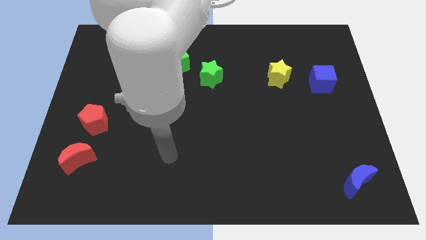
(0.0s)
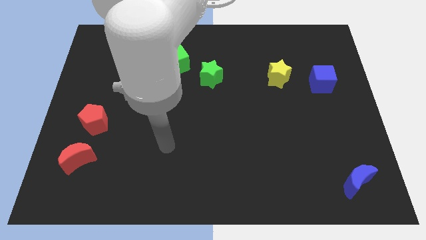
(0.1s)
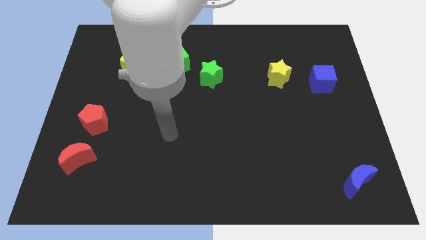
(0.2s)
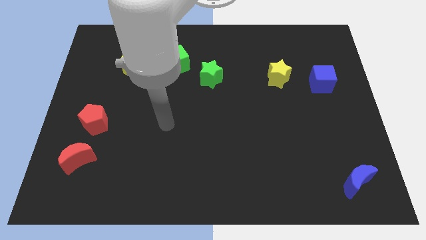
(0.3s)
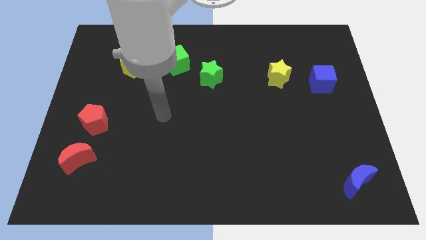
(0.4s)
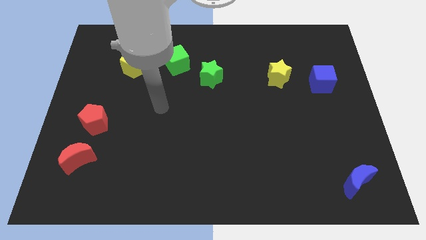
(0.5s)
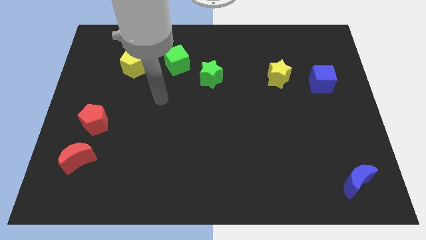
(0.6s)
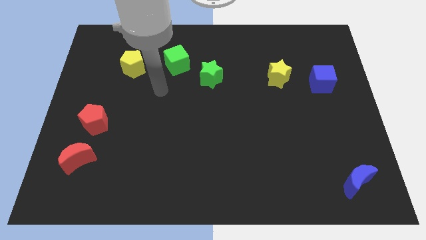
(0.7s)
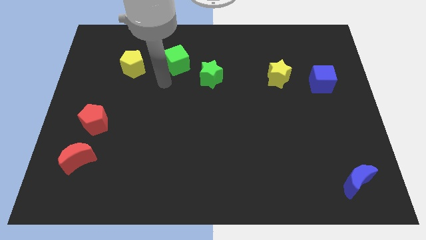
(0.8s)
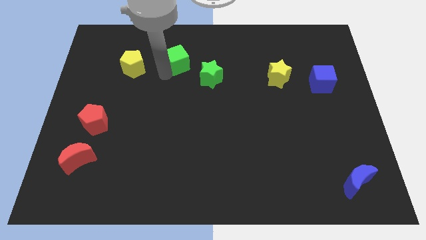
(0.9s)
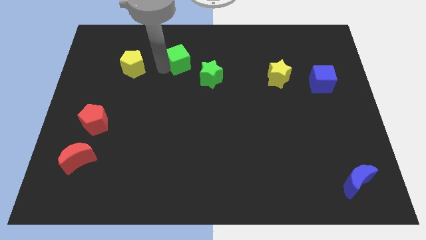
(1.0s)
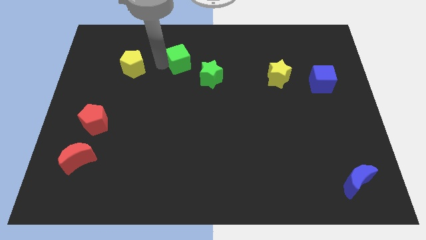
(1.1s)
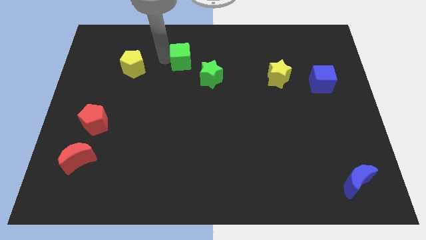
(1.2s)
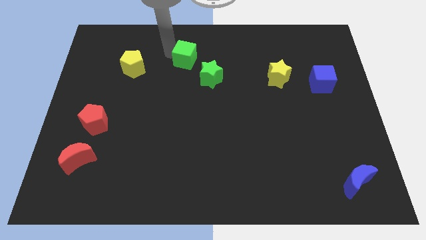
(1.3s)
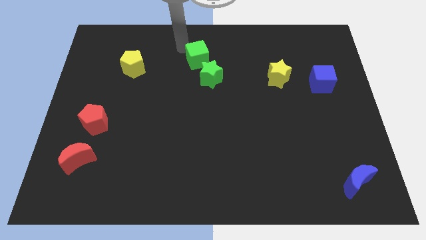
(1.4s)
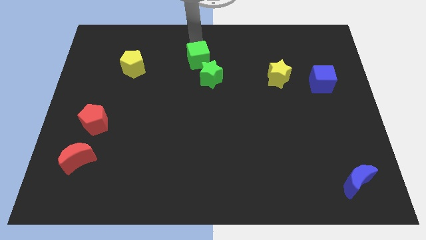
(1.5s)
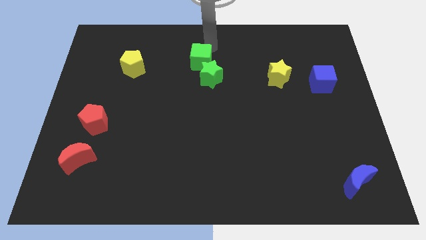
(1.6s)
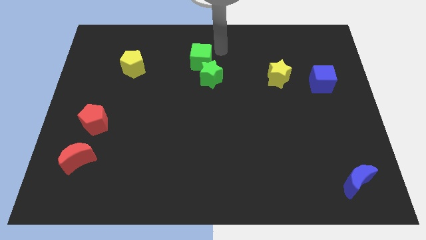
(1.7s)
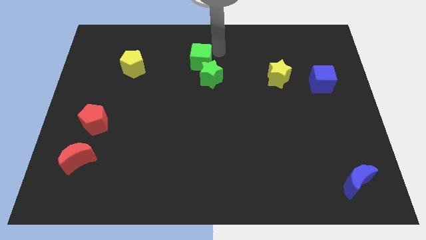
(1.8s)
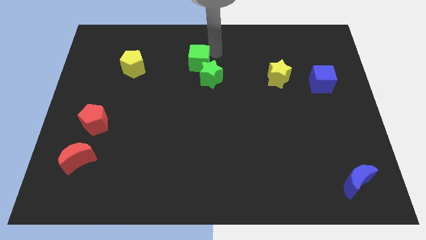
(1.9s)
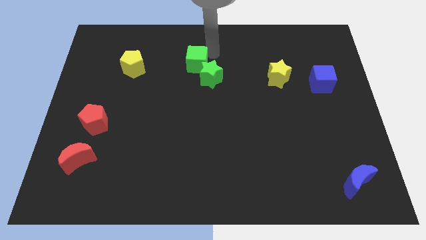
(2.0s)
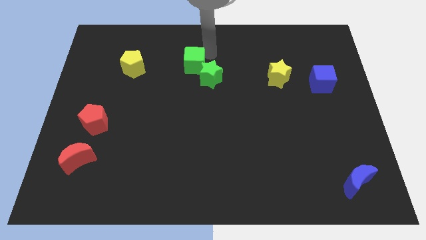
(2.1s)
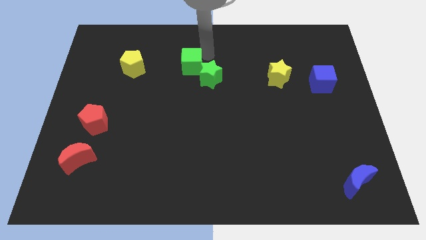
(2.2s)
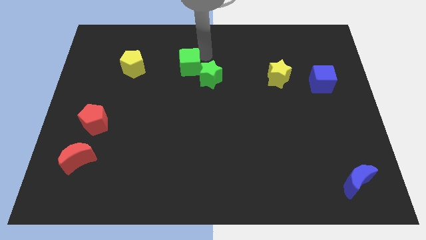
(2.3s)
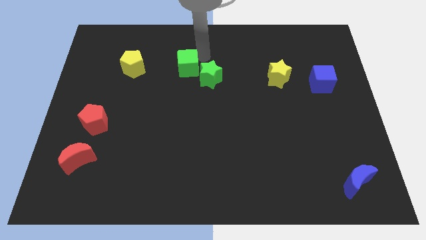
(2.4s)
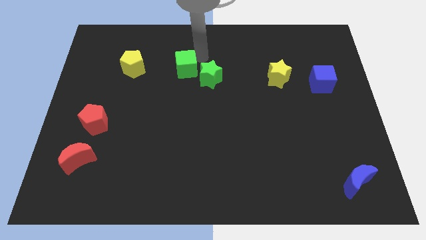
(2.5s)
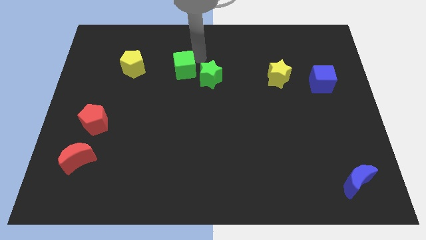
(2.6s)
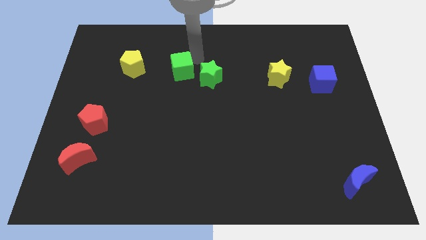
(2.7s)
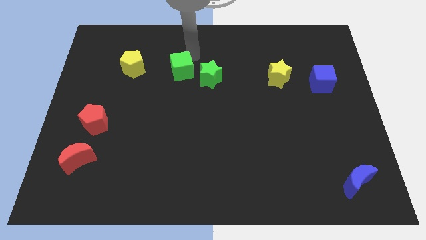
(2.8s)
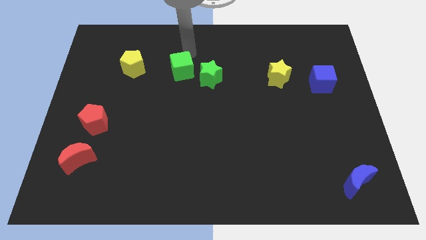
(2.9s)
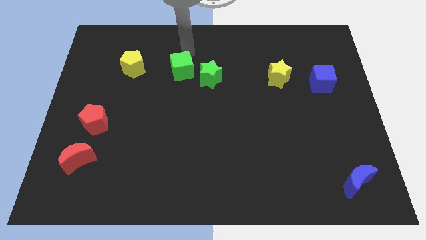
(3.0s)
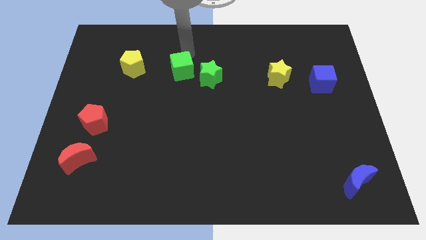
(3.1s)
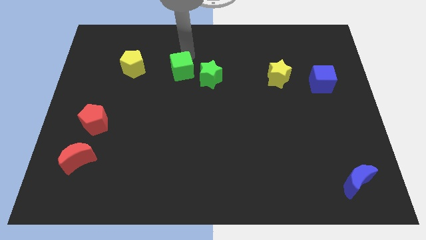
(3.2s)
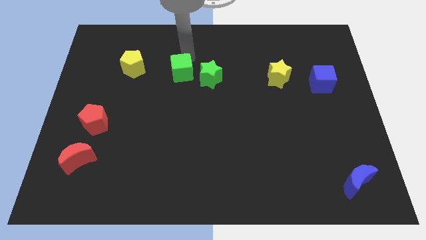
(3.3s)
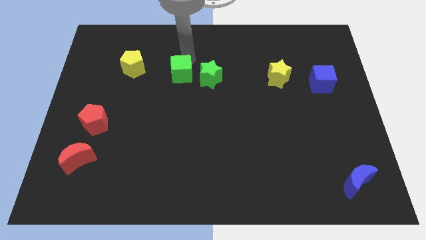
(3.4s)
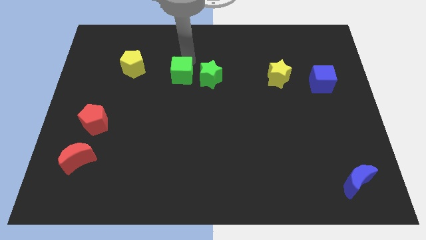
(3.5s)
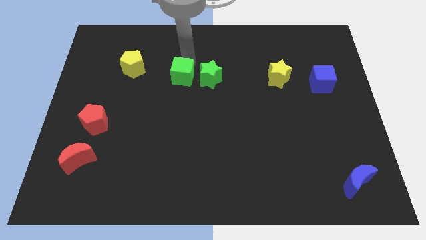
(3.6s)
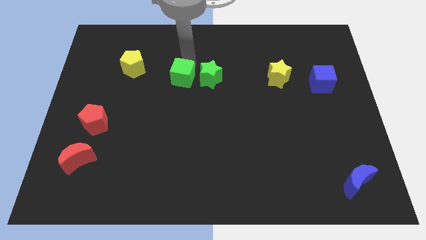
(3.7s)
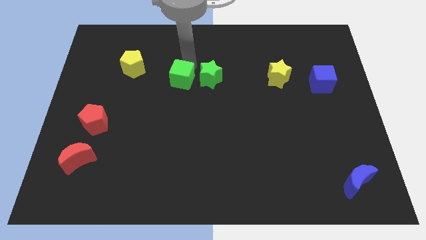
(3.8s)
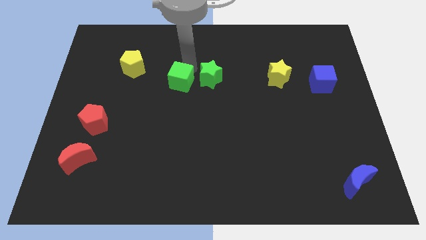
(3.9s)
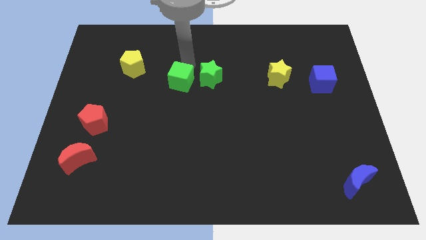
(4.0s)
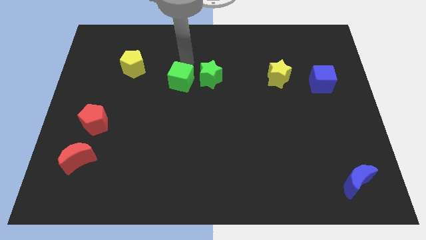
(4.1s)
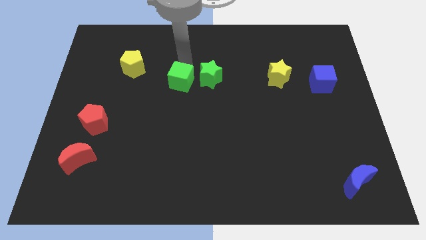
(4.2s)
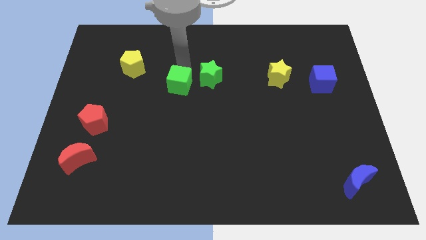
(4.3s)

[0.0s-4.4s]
move the green cube down a bit

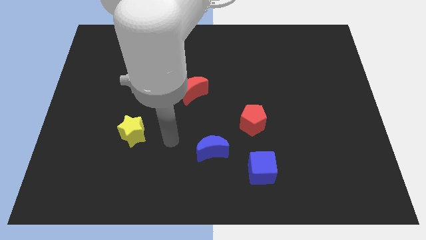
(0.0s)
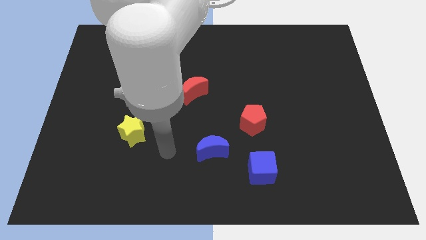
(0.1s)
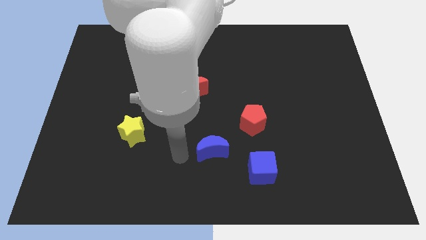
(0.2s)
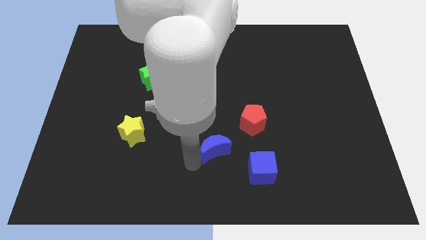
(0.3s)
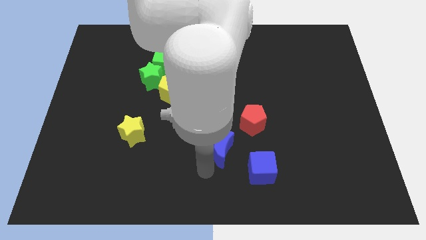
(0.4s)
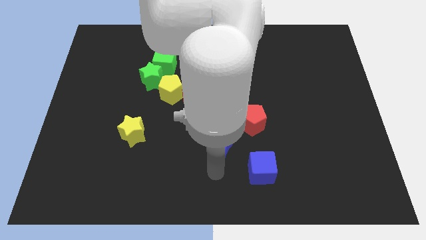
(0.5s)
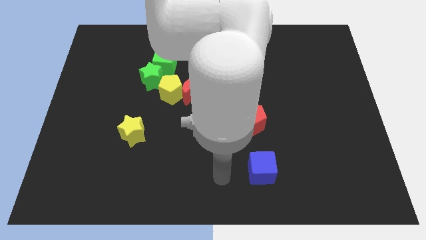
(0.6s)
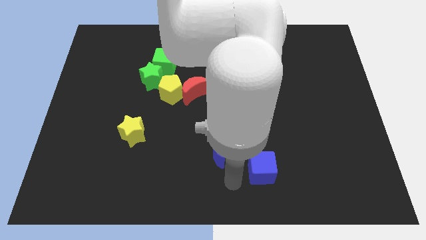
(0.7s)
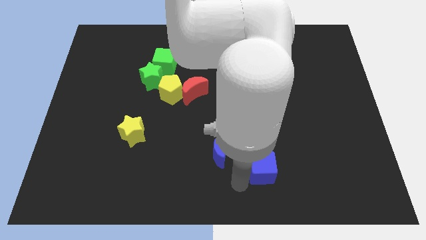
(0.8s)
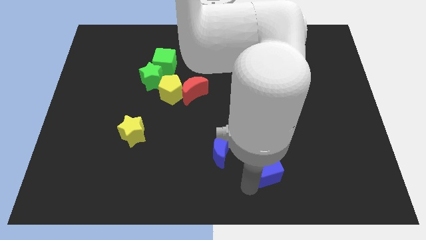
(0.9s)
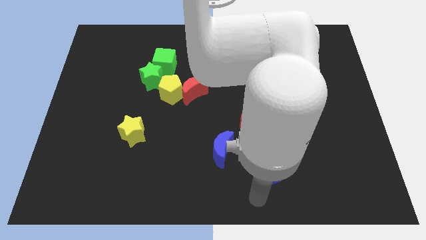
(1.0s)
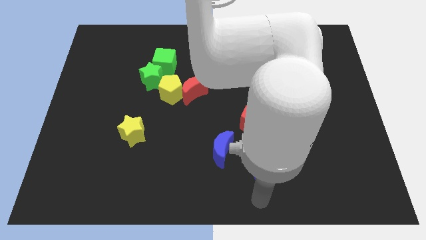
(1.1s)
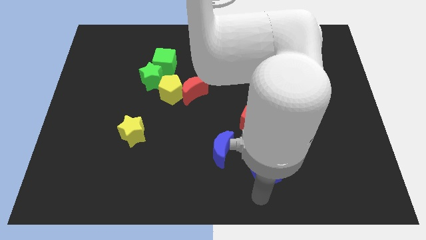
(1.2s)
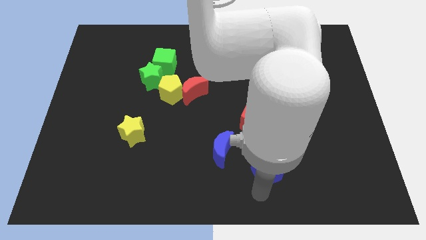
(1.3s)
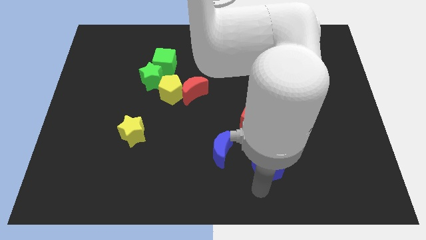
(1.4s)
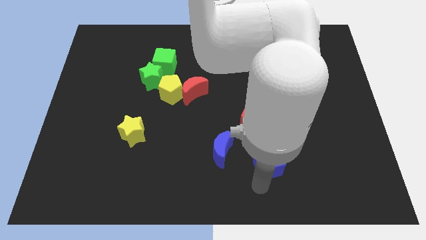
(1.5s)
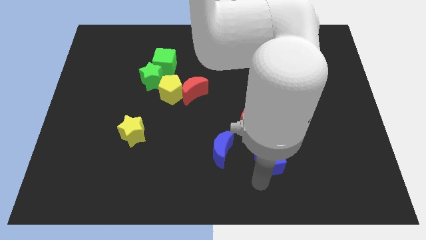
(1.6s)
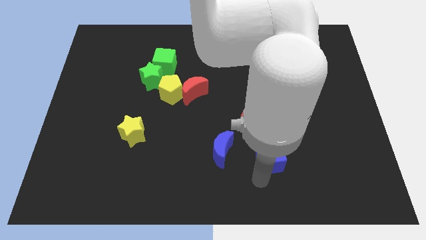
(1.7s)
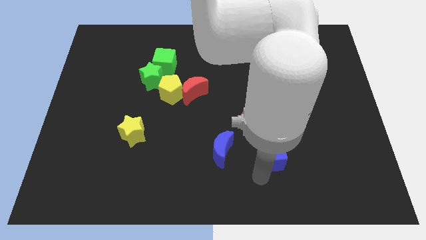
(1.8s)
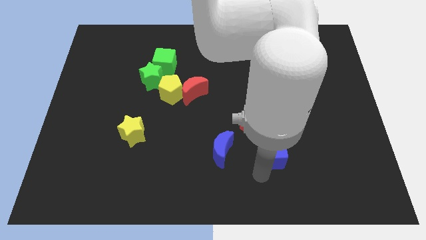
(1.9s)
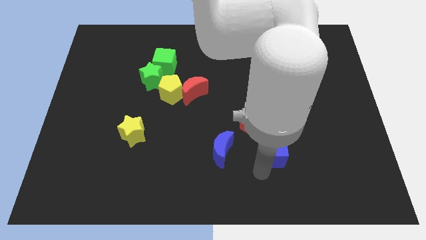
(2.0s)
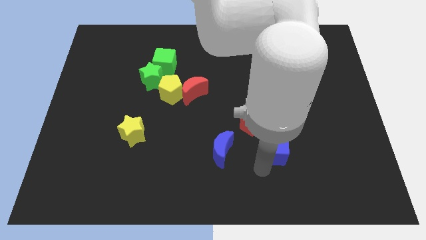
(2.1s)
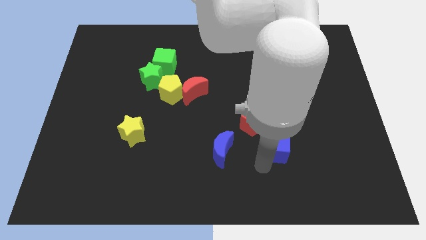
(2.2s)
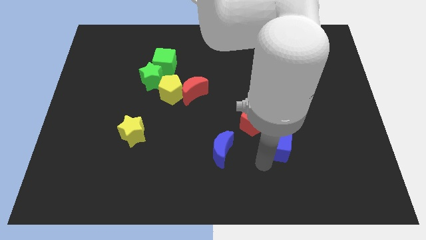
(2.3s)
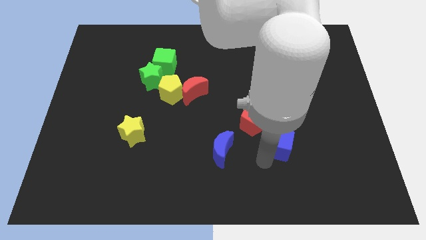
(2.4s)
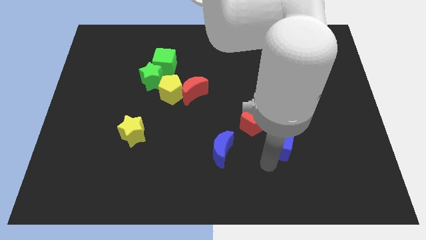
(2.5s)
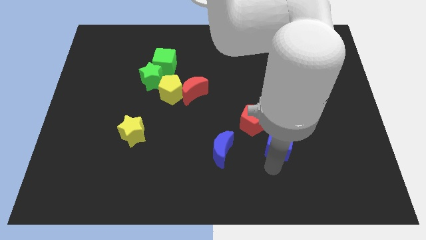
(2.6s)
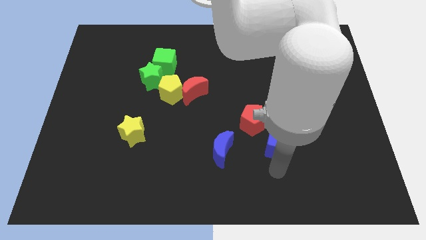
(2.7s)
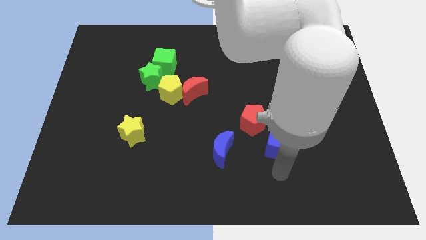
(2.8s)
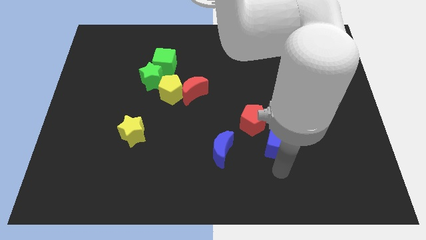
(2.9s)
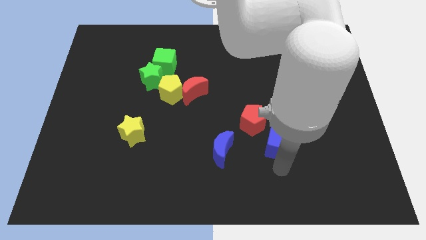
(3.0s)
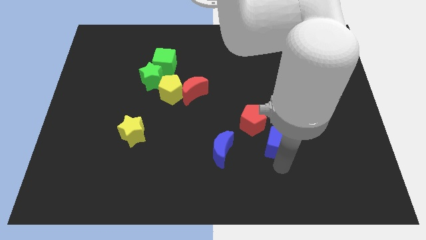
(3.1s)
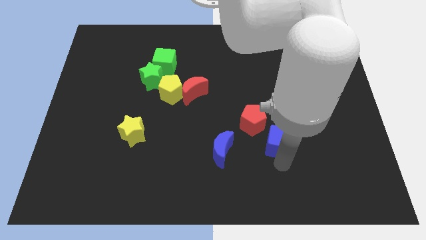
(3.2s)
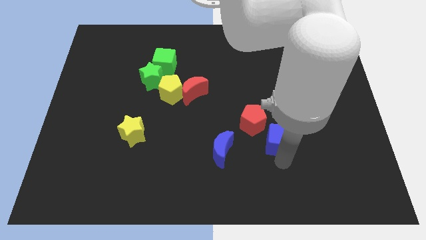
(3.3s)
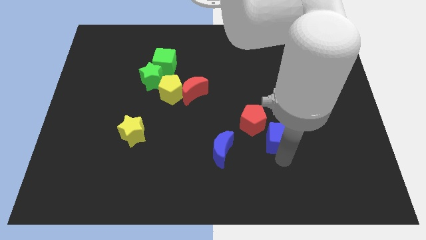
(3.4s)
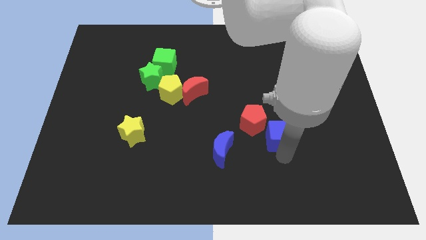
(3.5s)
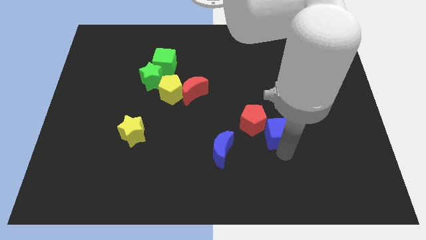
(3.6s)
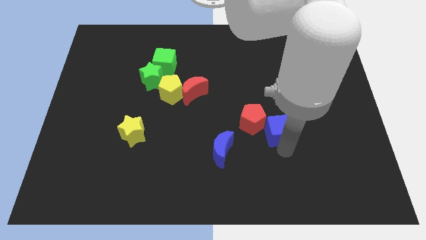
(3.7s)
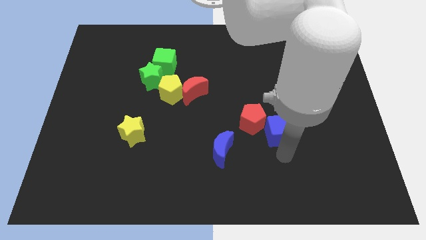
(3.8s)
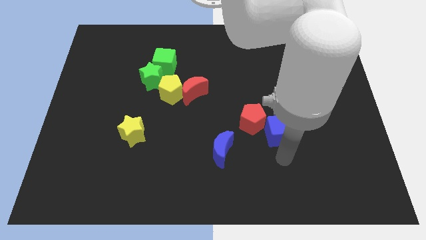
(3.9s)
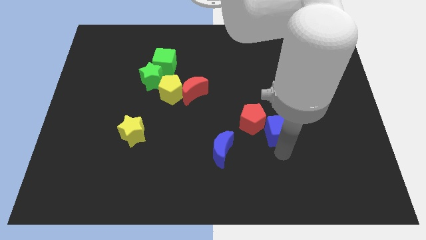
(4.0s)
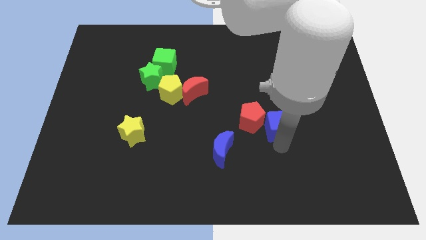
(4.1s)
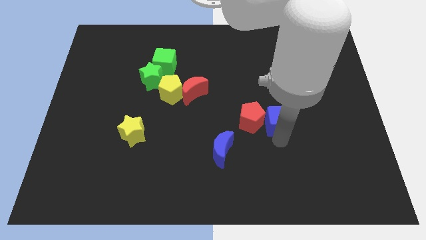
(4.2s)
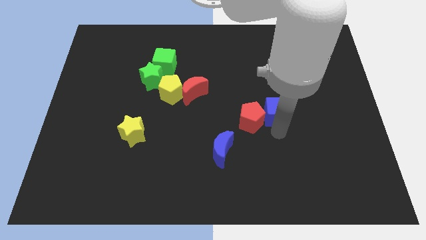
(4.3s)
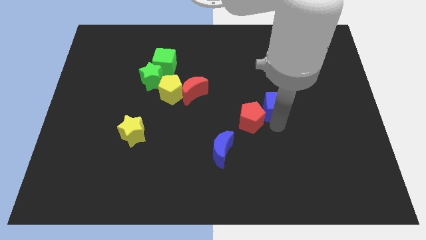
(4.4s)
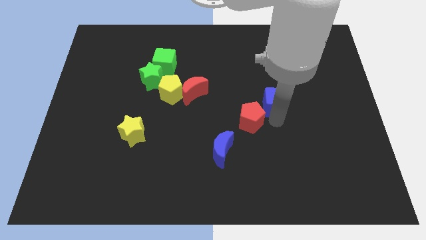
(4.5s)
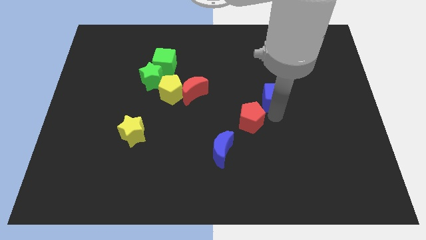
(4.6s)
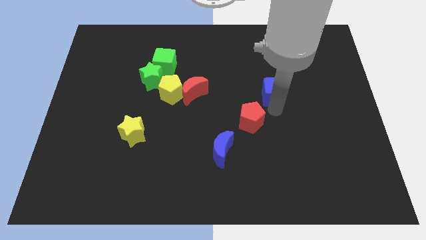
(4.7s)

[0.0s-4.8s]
push the blue cube up
